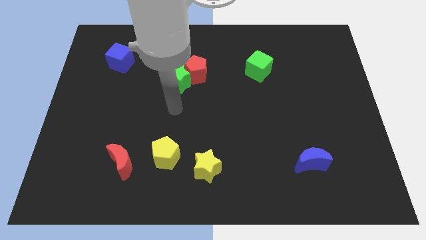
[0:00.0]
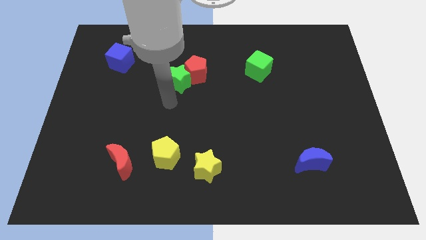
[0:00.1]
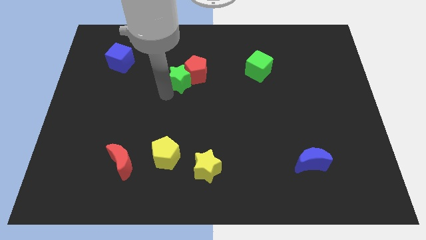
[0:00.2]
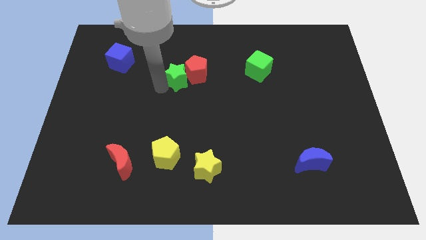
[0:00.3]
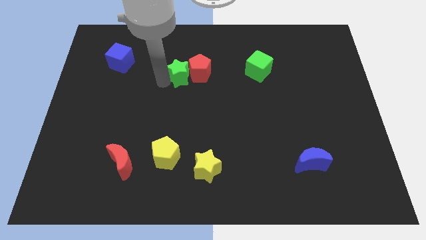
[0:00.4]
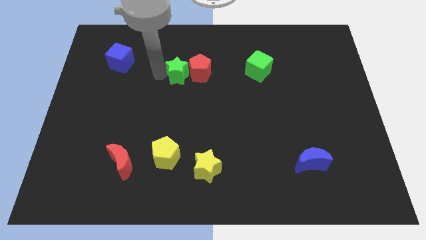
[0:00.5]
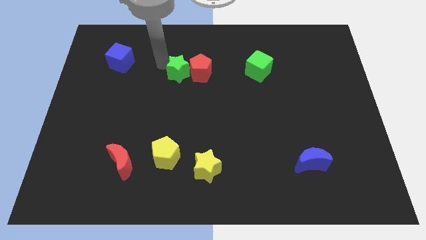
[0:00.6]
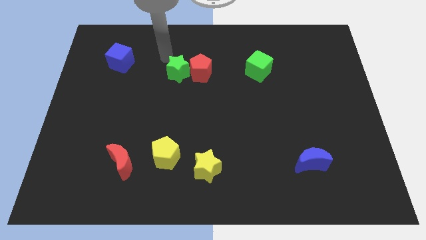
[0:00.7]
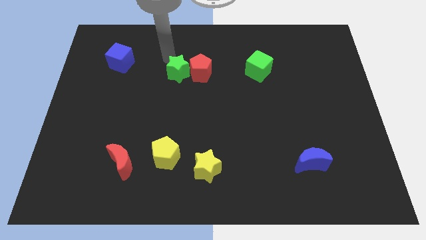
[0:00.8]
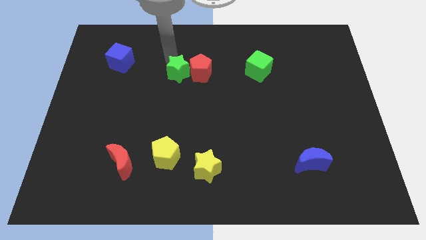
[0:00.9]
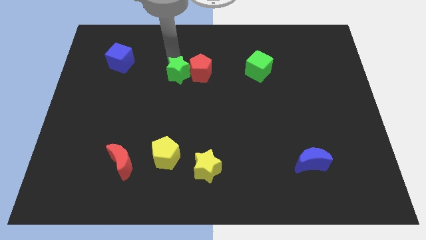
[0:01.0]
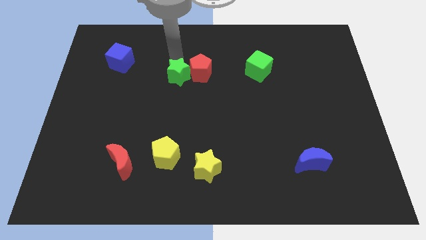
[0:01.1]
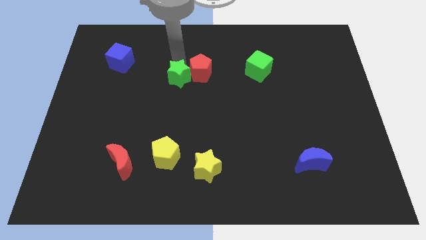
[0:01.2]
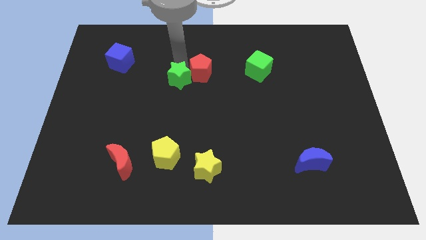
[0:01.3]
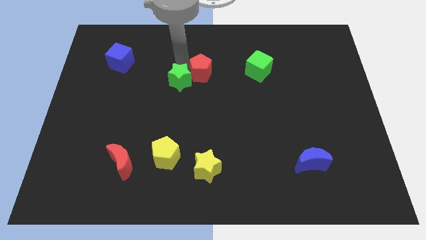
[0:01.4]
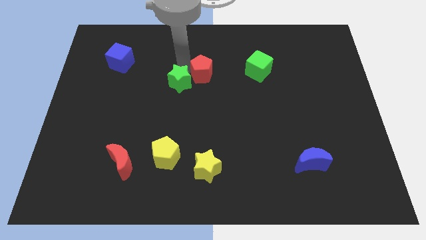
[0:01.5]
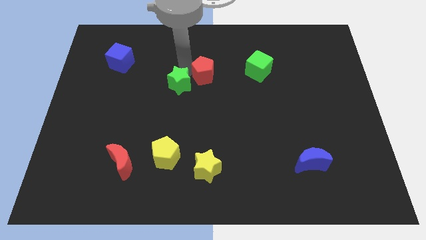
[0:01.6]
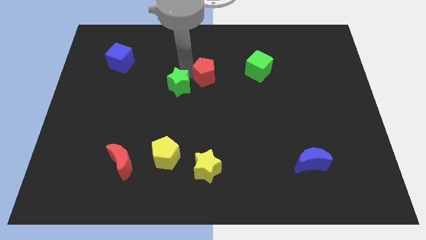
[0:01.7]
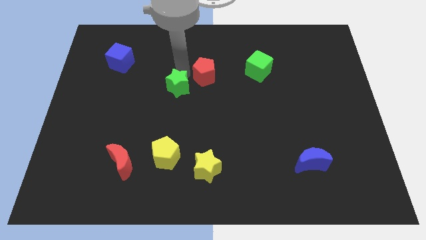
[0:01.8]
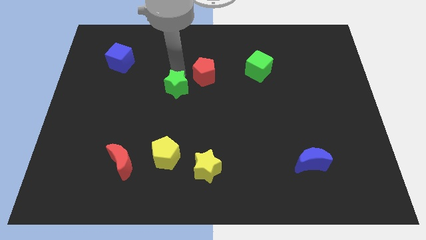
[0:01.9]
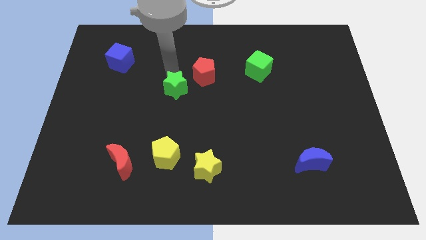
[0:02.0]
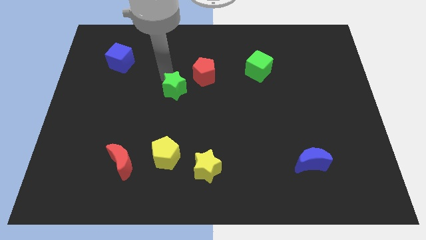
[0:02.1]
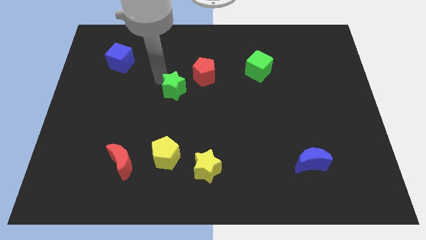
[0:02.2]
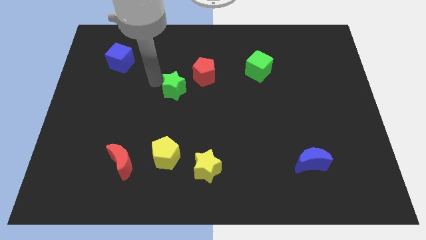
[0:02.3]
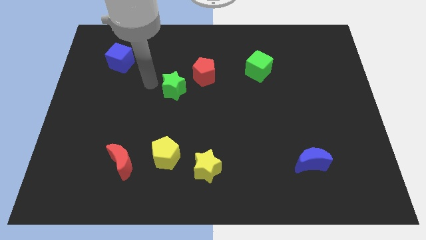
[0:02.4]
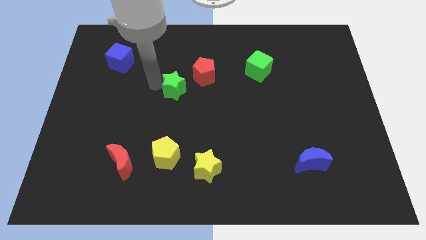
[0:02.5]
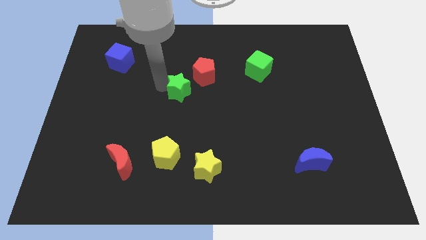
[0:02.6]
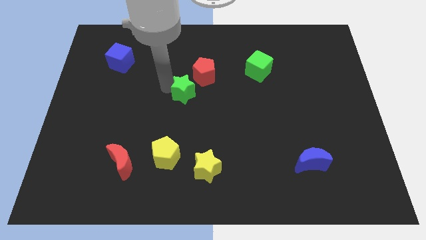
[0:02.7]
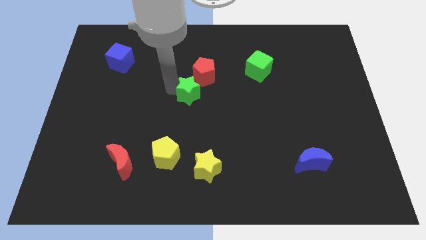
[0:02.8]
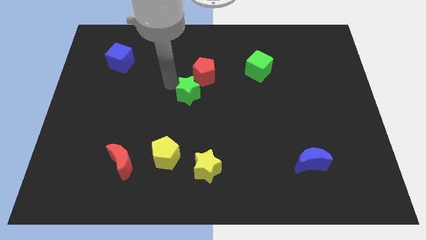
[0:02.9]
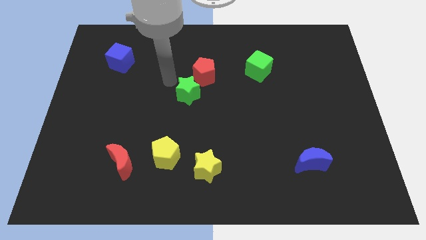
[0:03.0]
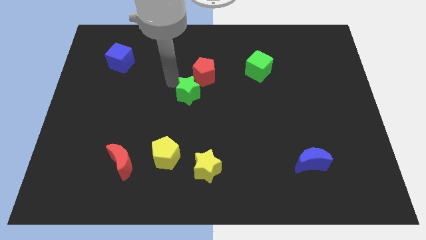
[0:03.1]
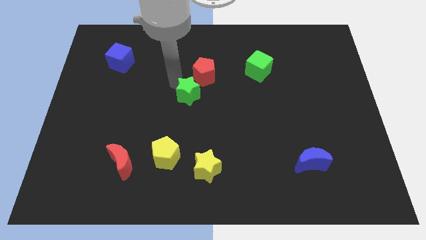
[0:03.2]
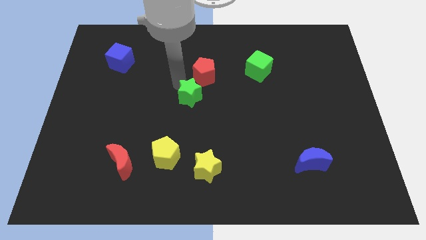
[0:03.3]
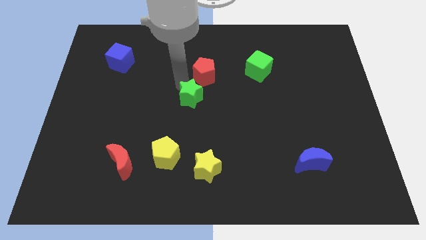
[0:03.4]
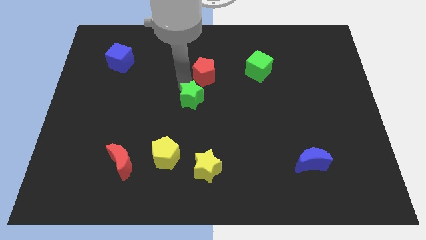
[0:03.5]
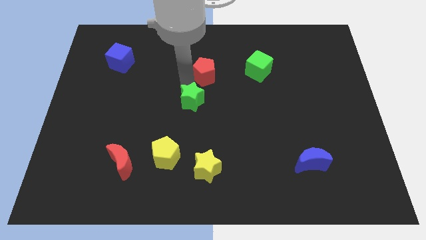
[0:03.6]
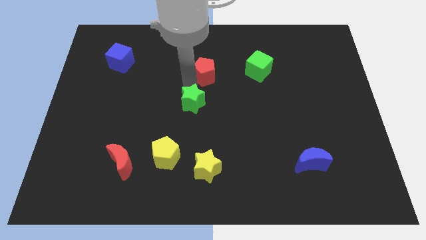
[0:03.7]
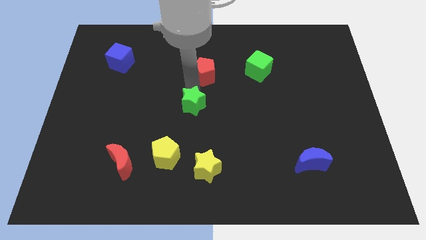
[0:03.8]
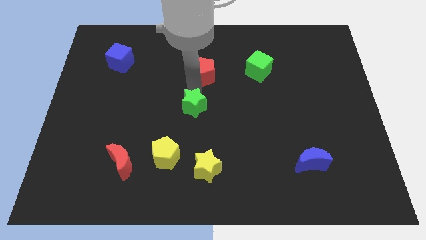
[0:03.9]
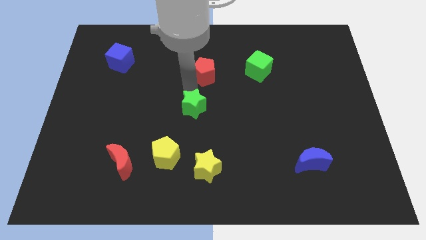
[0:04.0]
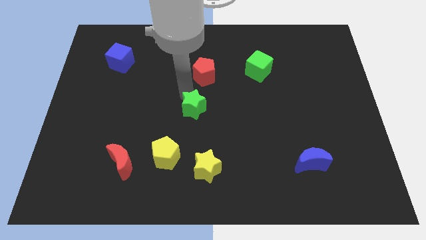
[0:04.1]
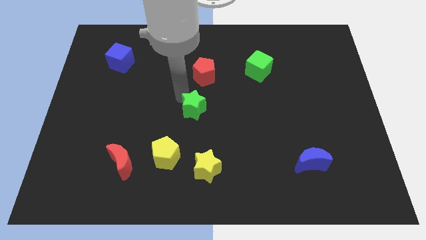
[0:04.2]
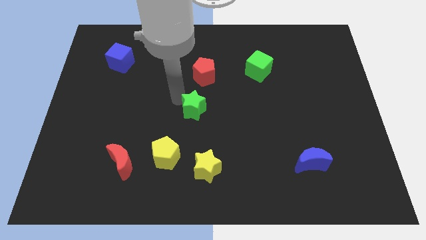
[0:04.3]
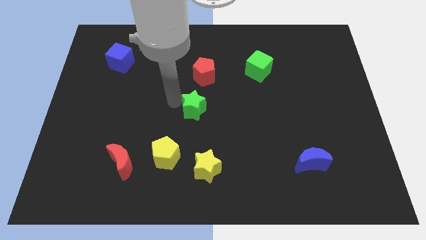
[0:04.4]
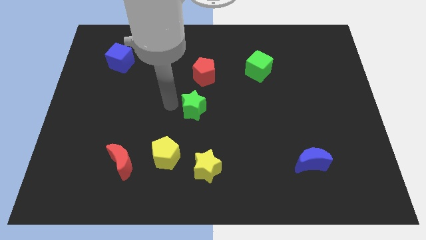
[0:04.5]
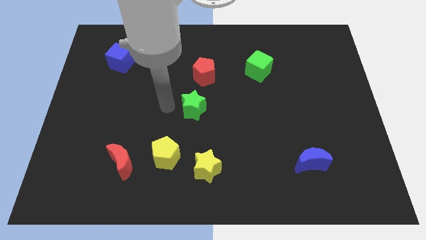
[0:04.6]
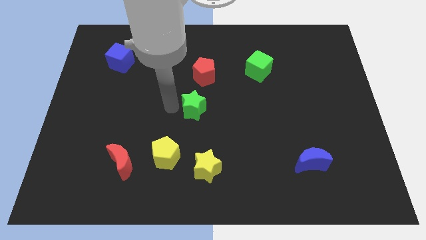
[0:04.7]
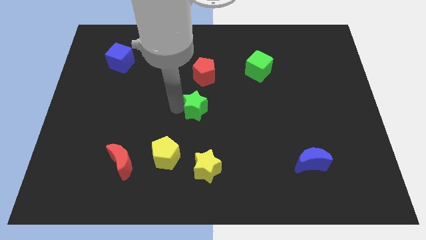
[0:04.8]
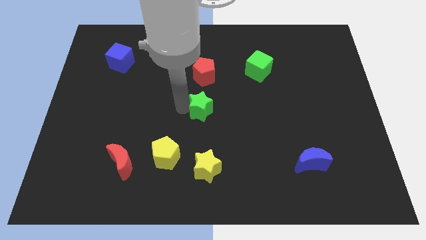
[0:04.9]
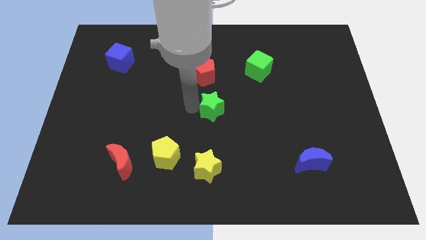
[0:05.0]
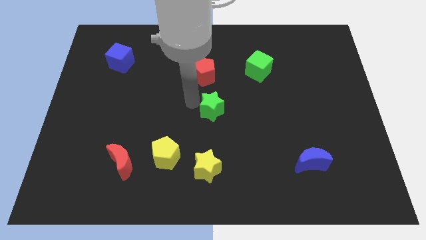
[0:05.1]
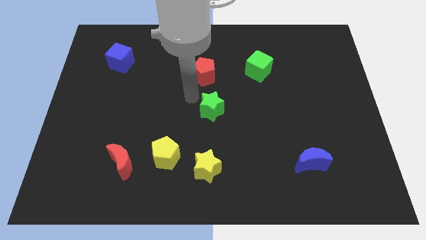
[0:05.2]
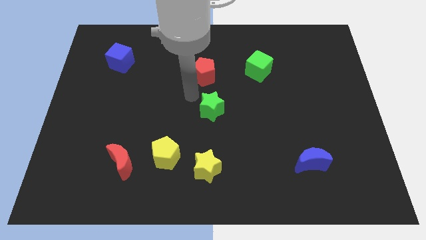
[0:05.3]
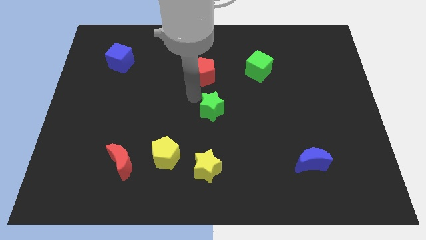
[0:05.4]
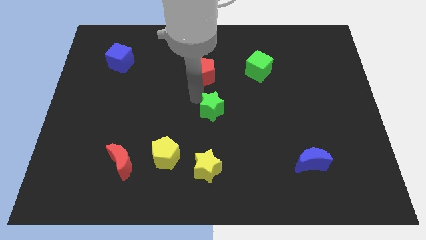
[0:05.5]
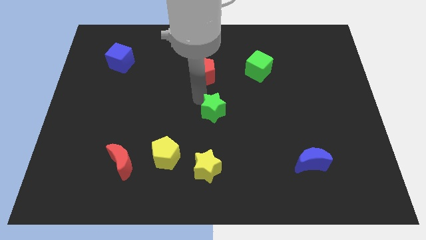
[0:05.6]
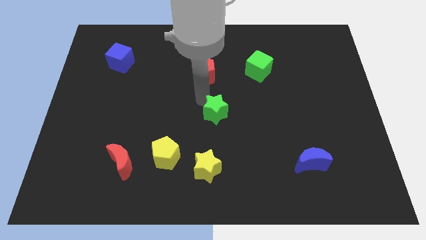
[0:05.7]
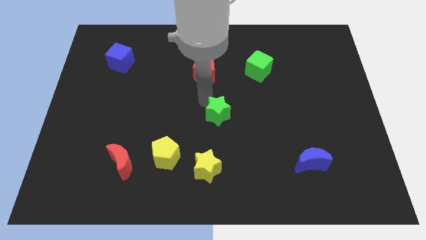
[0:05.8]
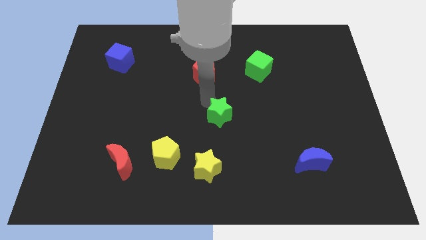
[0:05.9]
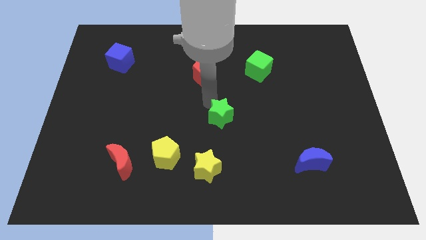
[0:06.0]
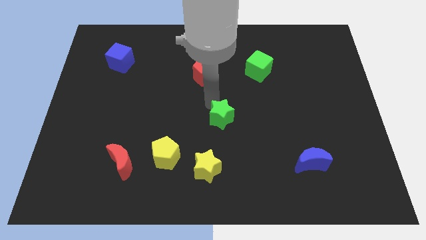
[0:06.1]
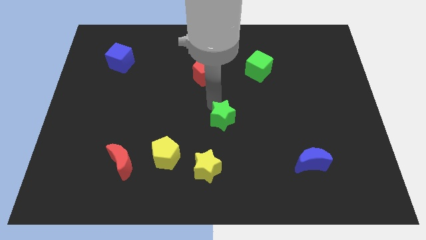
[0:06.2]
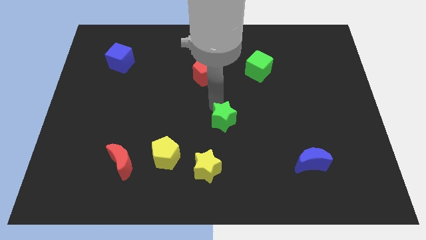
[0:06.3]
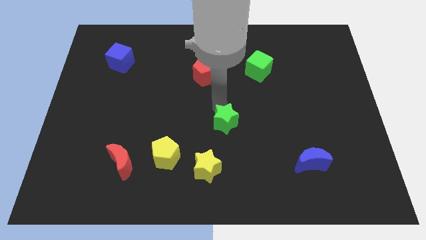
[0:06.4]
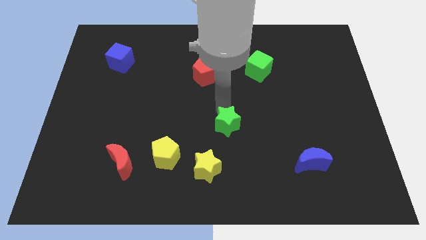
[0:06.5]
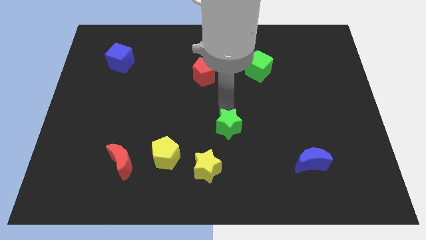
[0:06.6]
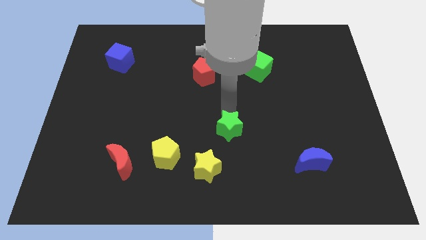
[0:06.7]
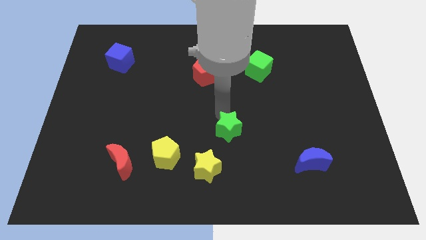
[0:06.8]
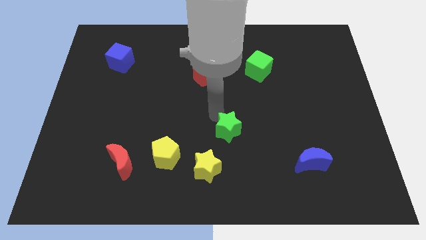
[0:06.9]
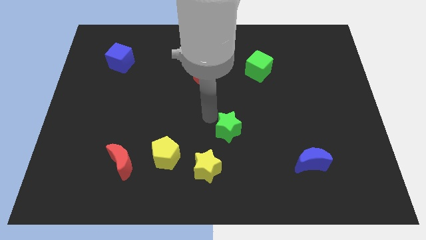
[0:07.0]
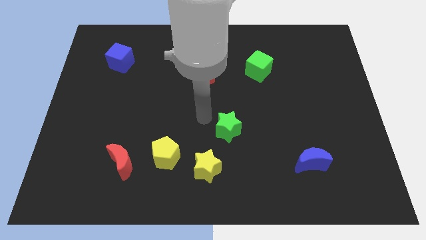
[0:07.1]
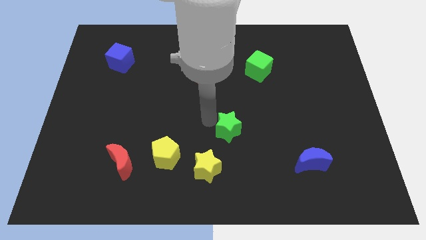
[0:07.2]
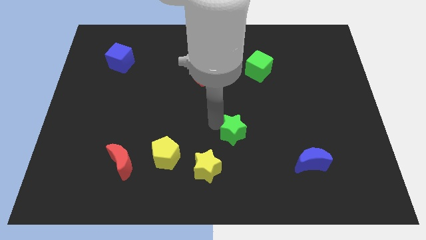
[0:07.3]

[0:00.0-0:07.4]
push the green star down and then to the right

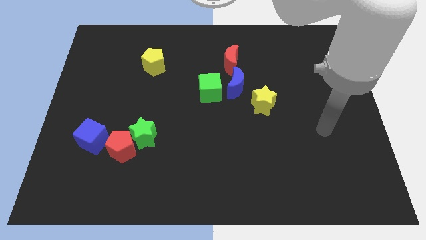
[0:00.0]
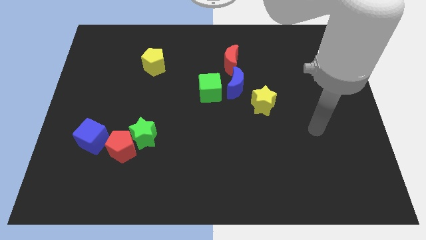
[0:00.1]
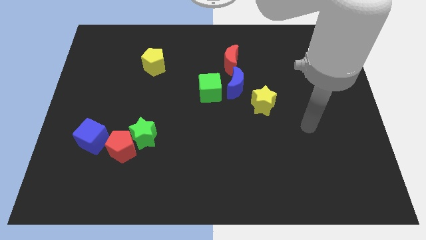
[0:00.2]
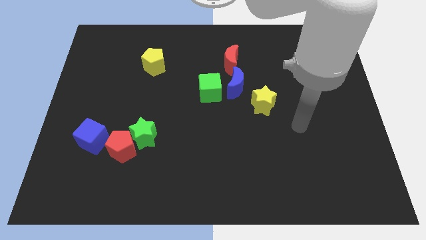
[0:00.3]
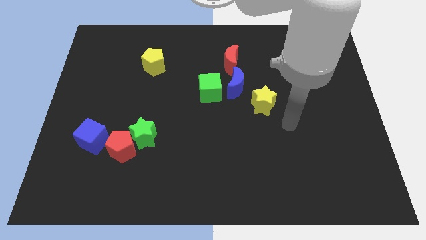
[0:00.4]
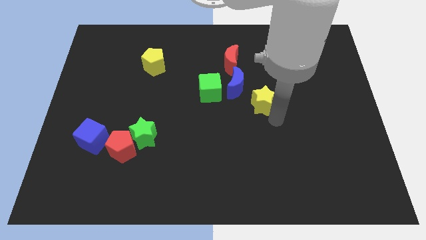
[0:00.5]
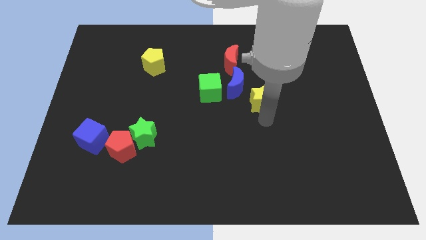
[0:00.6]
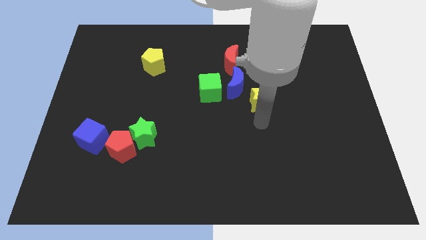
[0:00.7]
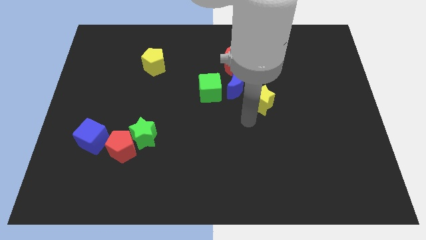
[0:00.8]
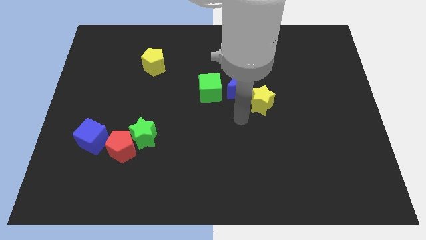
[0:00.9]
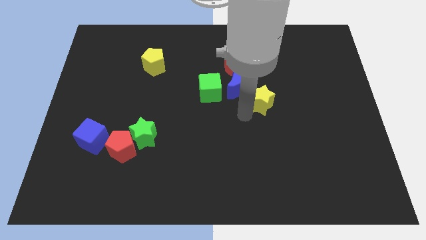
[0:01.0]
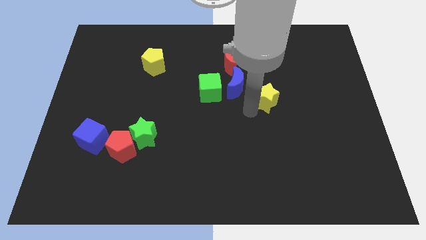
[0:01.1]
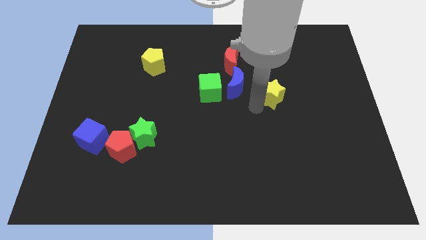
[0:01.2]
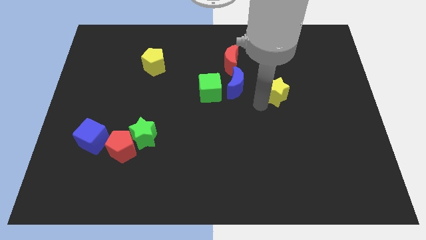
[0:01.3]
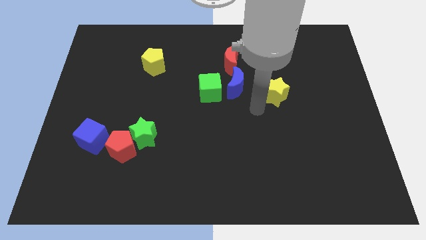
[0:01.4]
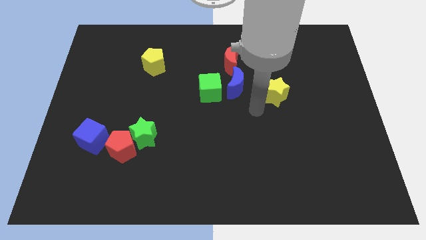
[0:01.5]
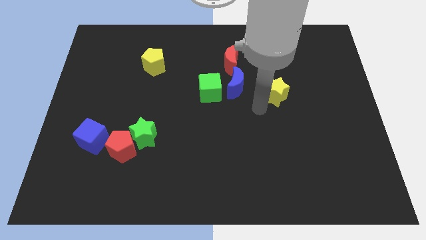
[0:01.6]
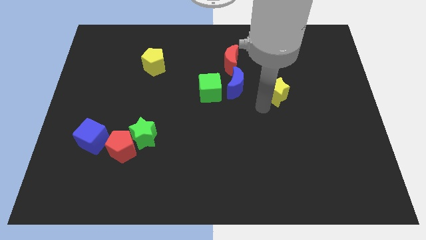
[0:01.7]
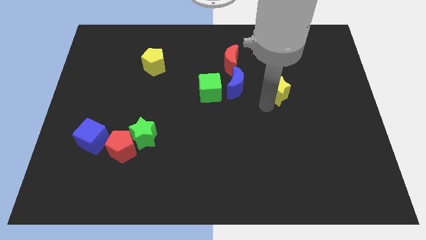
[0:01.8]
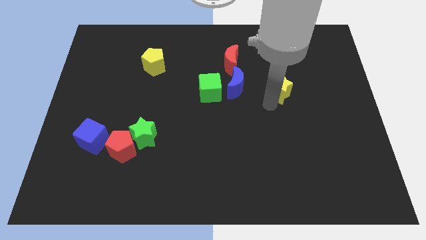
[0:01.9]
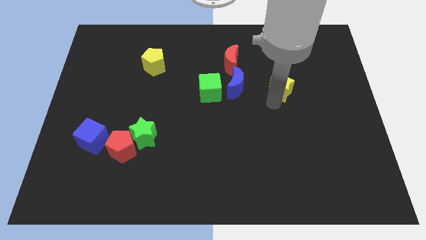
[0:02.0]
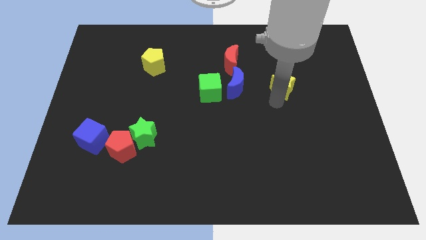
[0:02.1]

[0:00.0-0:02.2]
push the yellow star upwards and then right a little bit
